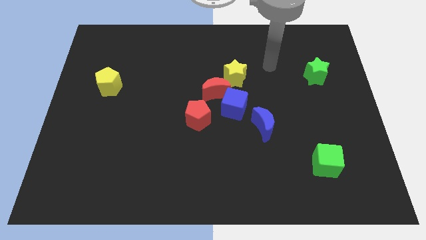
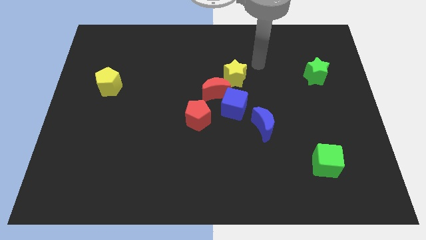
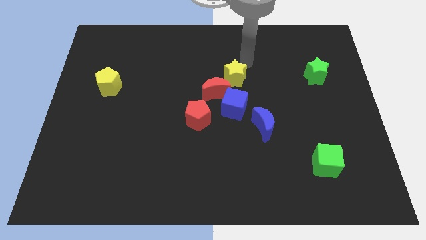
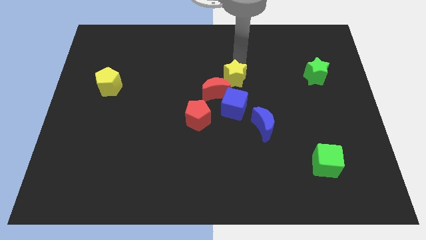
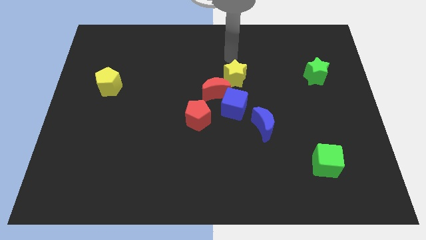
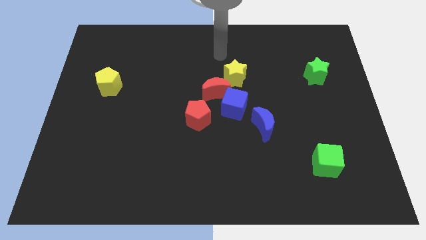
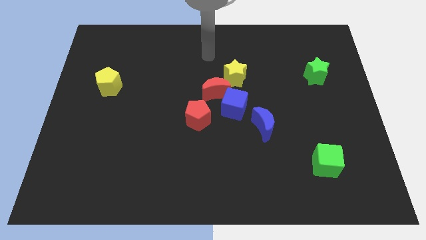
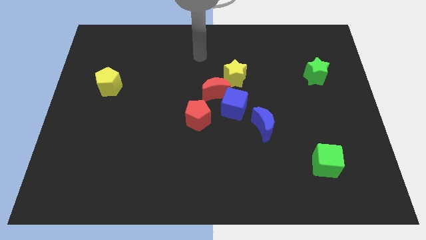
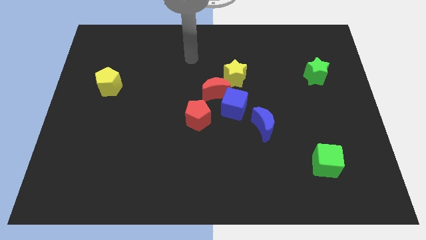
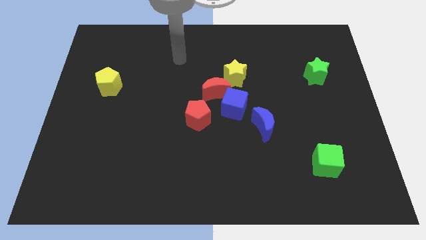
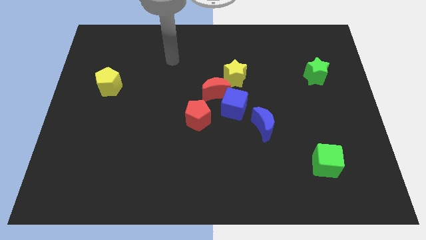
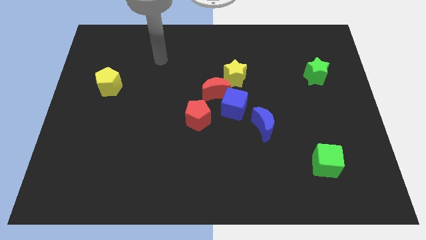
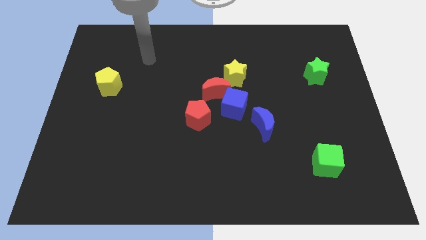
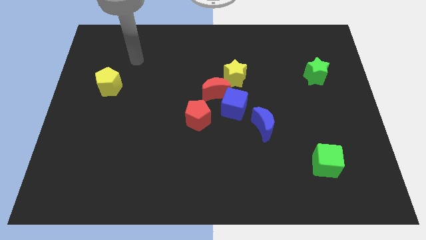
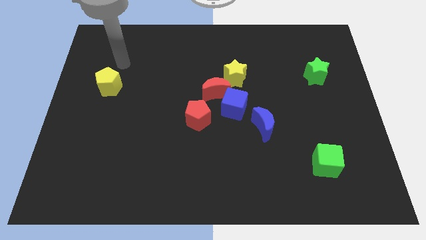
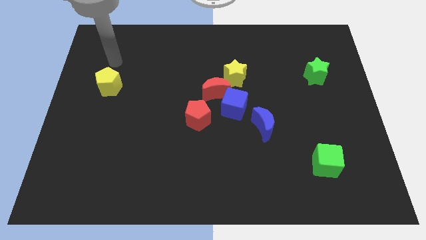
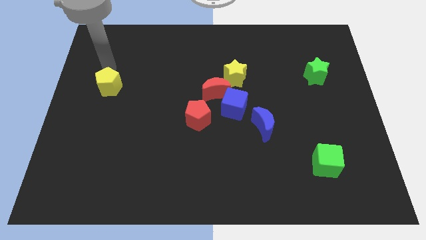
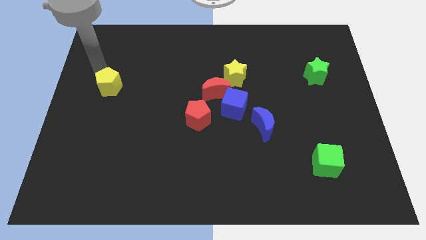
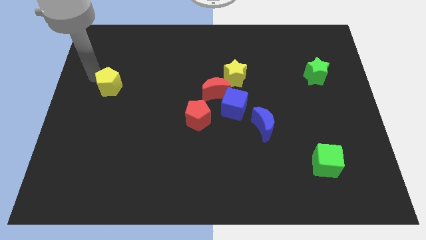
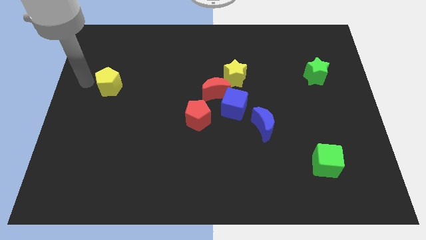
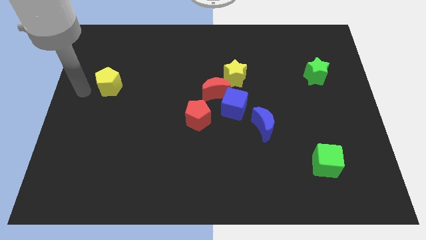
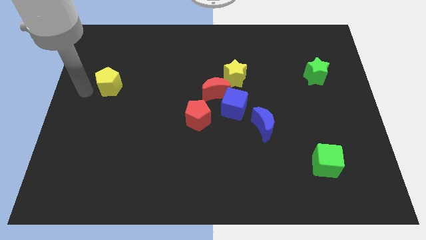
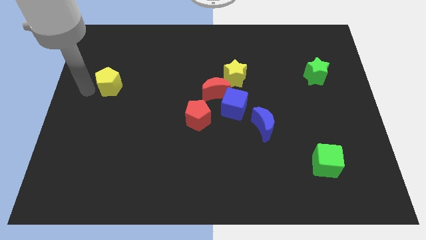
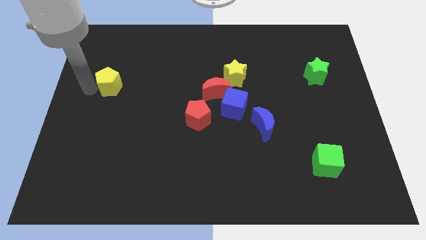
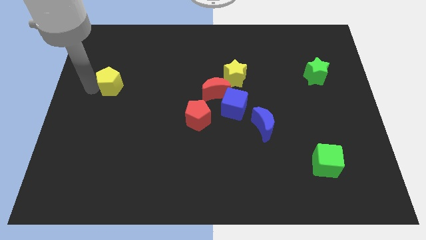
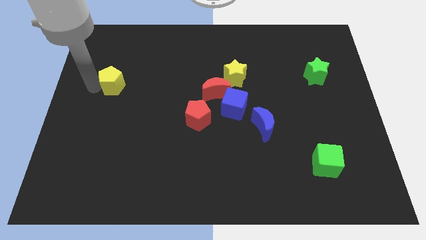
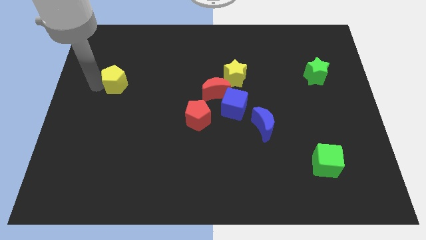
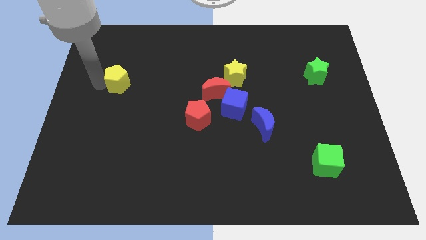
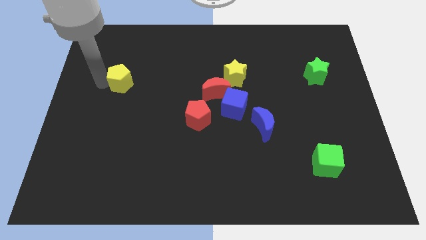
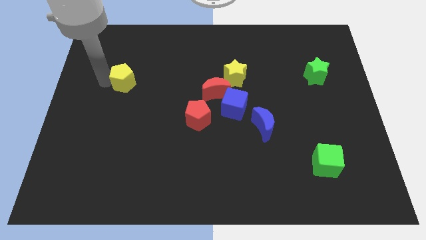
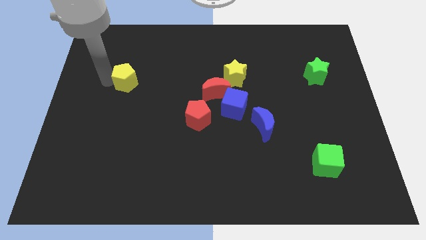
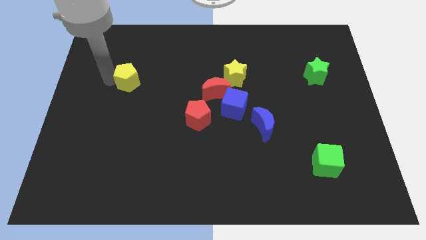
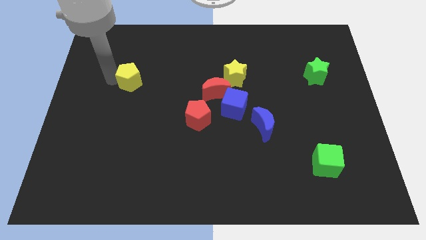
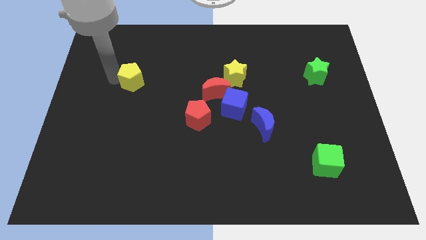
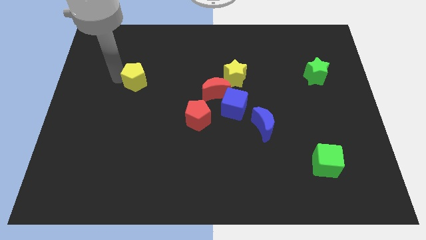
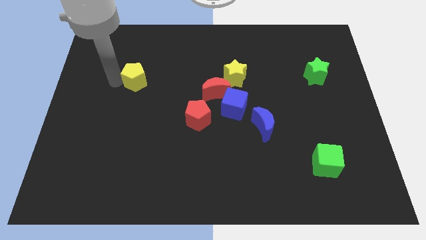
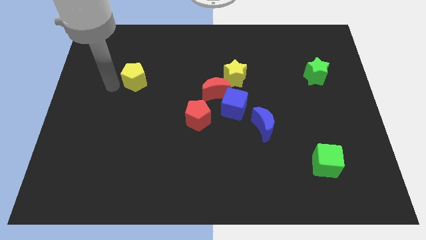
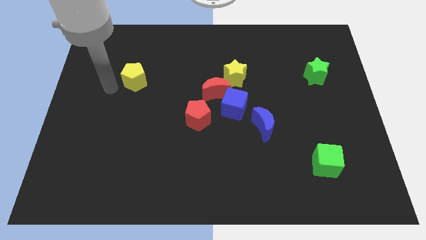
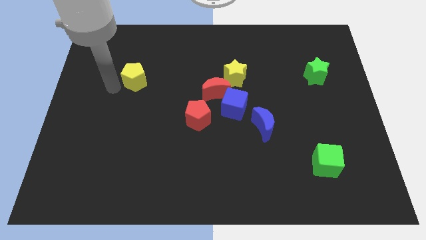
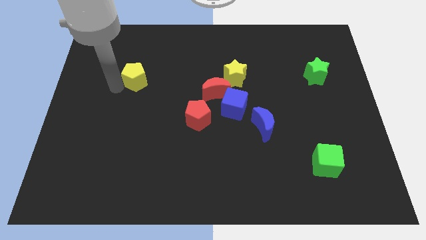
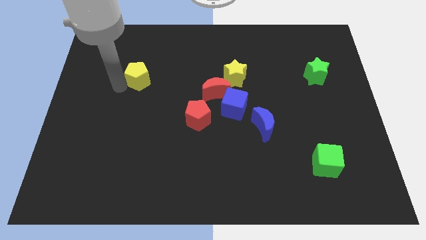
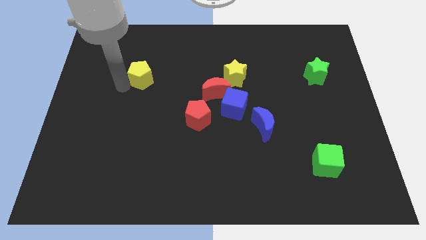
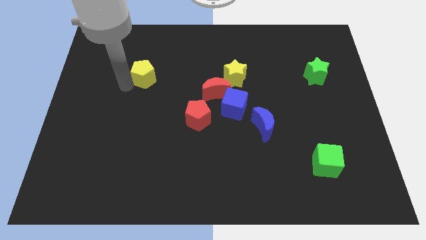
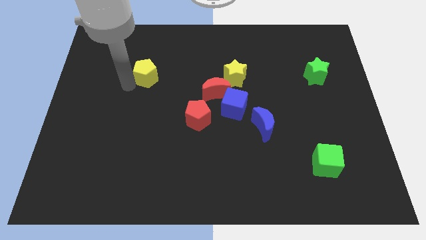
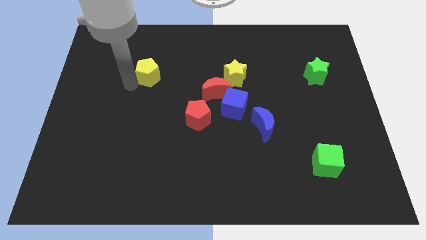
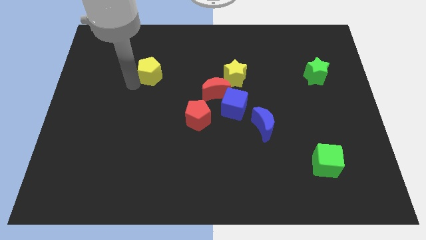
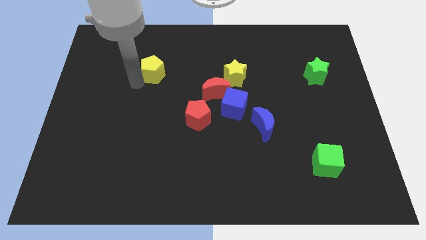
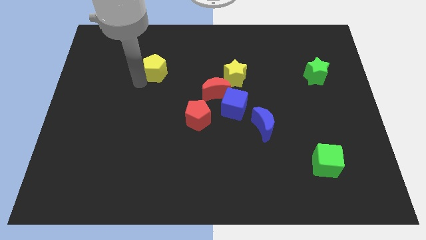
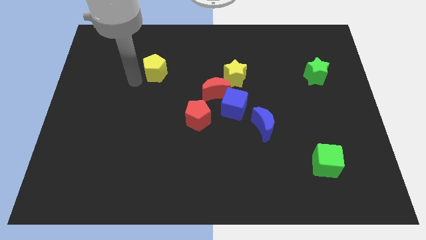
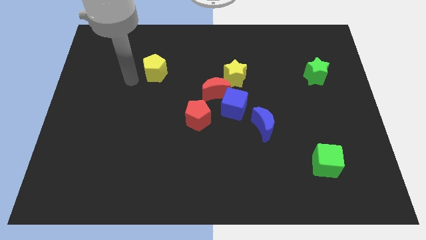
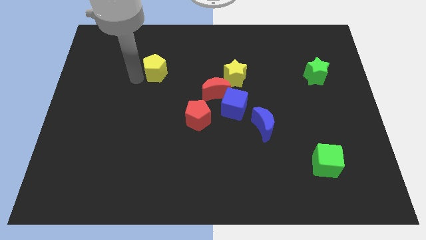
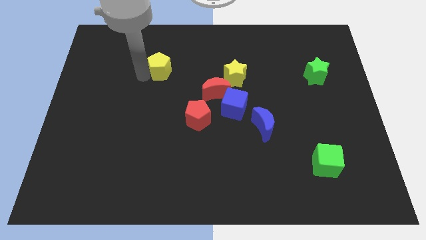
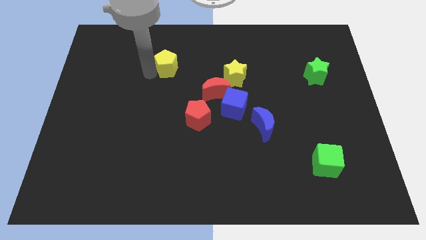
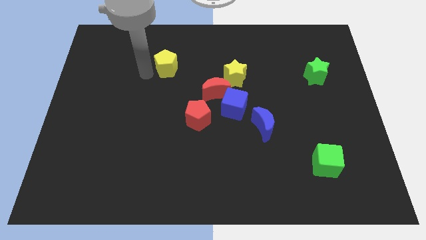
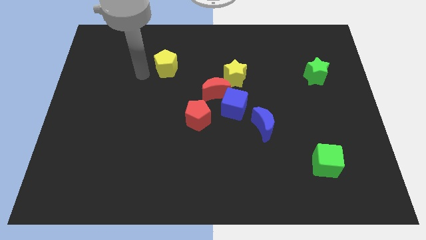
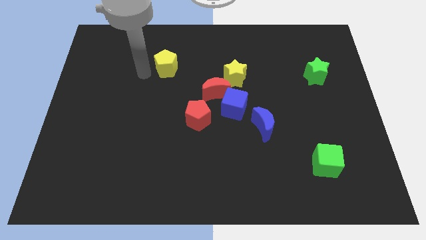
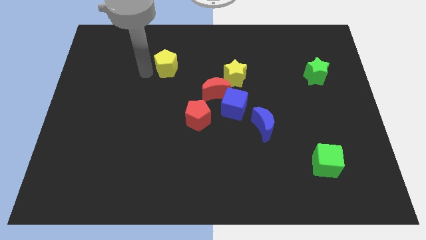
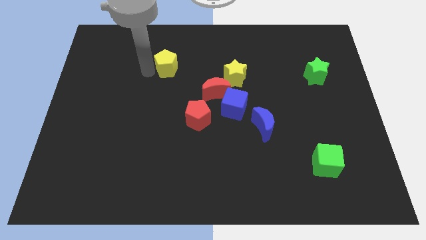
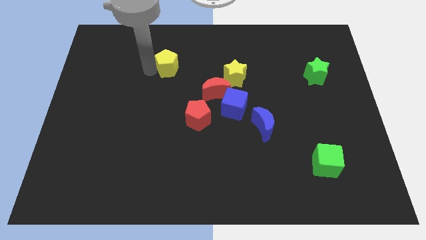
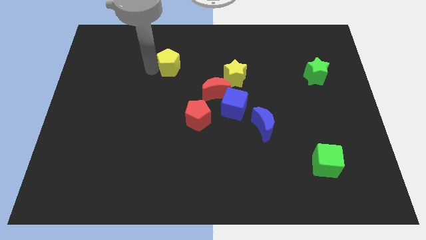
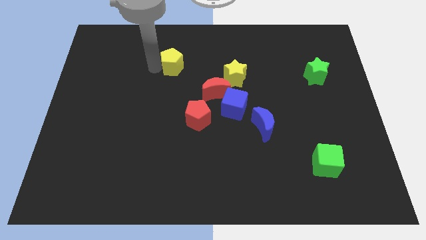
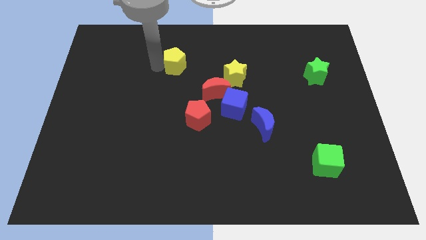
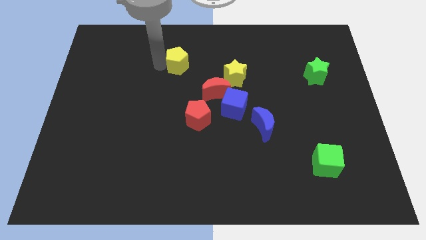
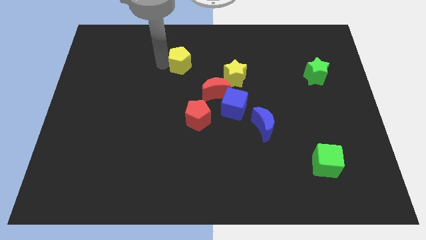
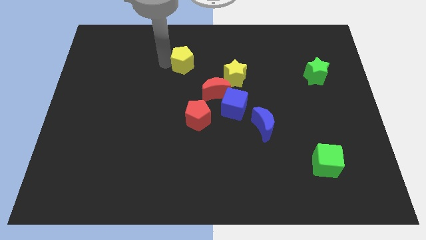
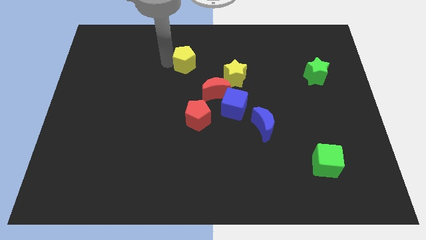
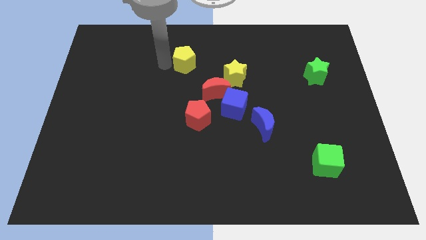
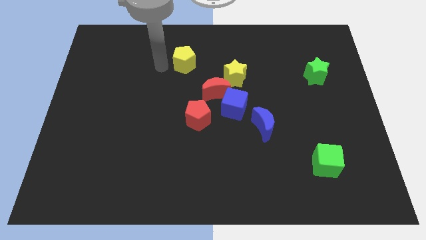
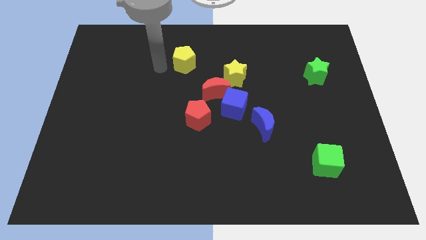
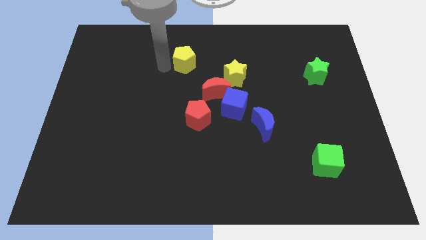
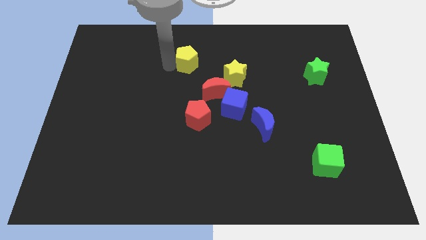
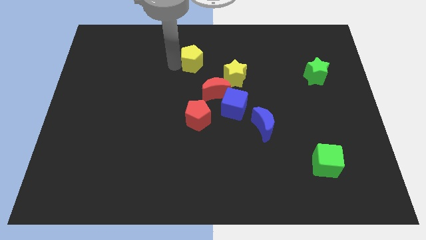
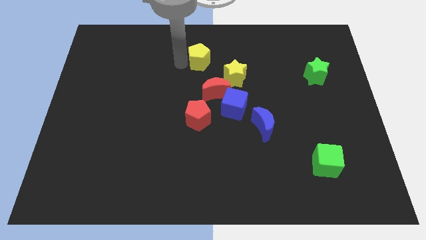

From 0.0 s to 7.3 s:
put the yellow pentagon to the top side of the red moon

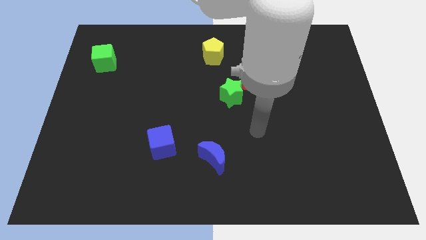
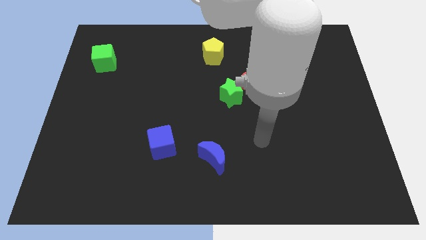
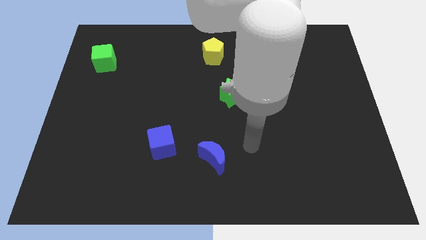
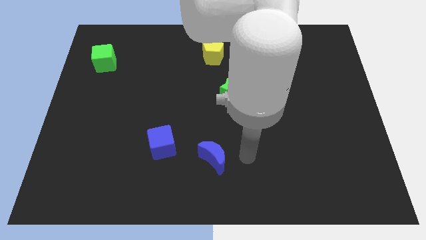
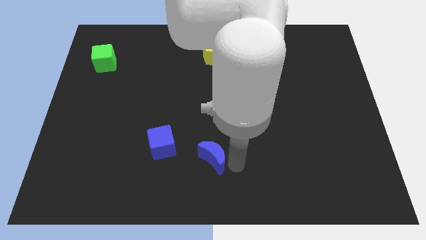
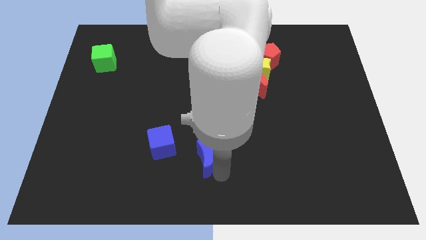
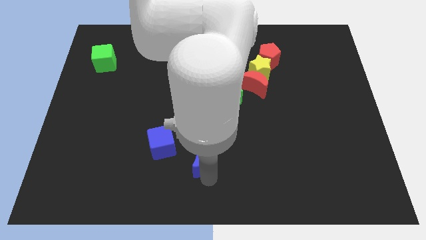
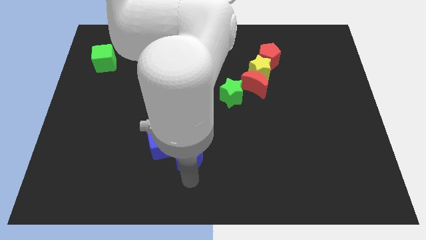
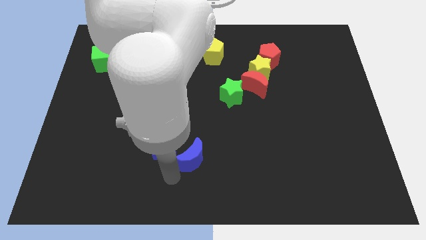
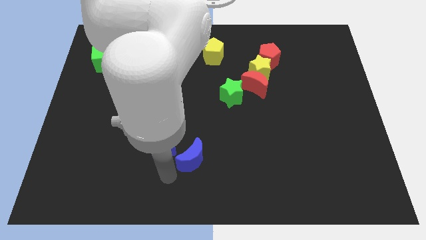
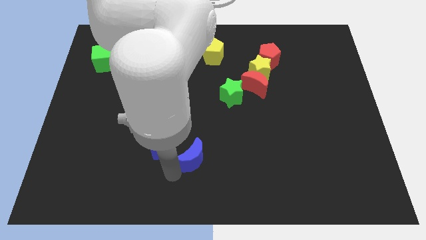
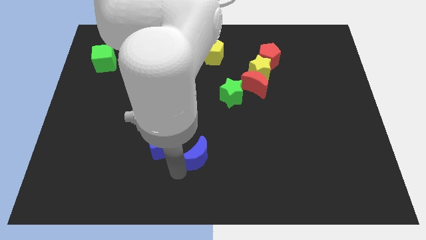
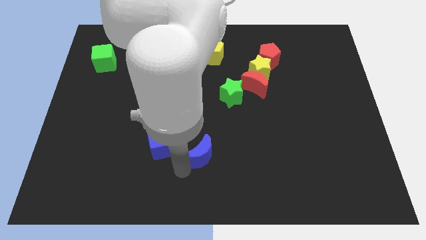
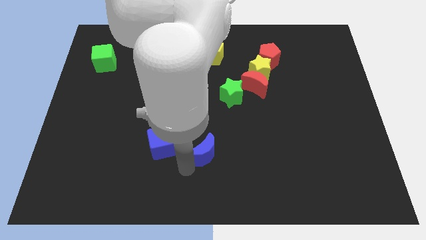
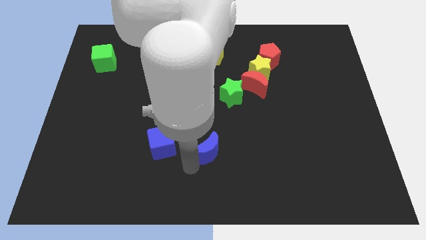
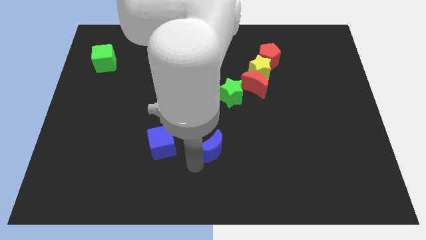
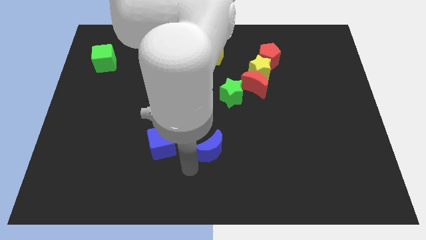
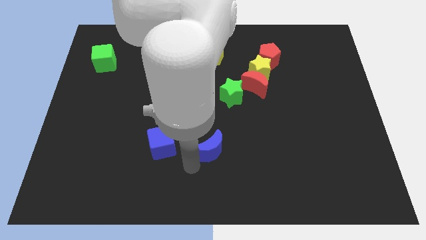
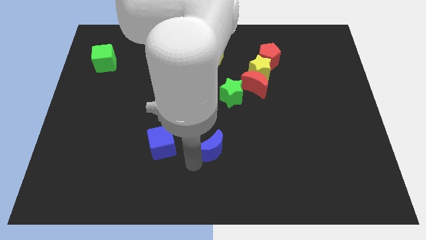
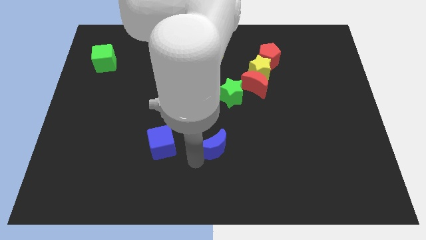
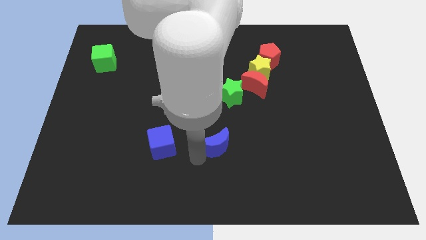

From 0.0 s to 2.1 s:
push the blue moon to the bottom of the green star
